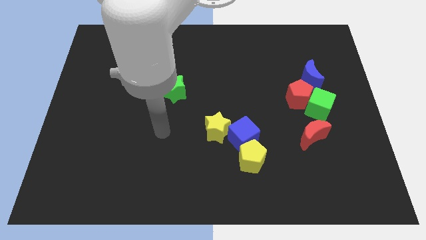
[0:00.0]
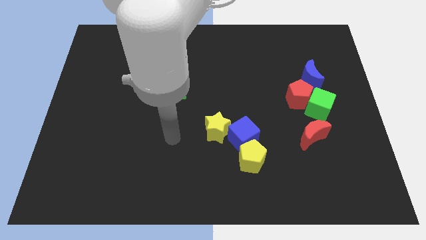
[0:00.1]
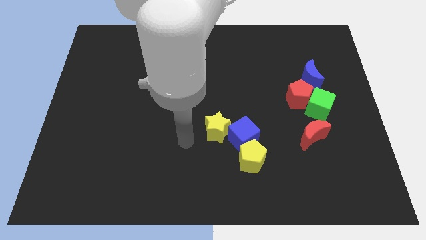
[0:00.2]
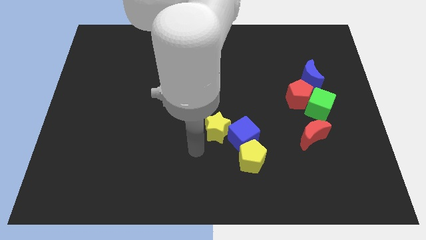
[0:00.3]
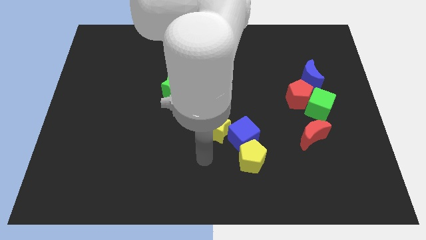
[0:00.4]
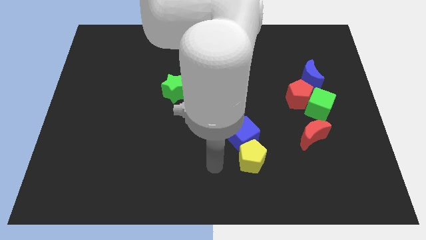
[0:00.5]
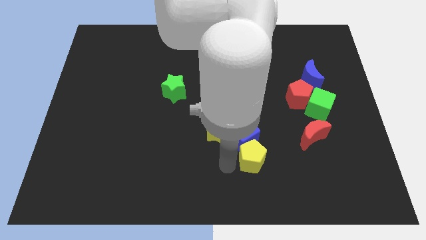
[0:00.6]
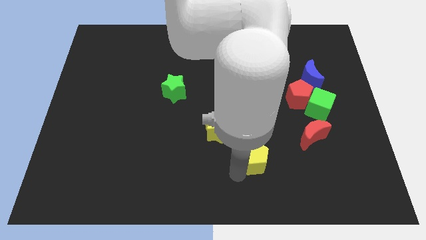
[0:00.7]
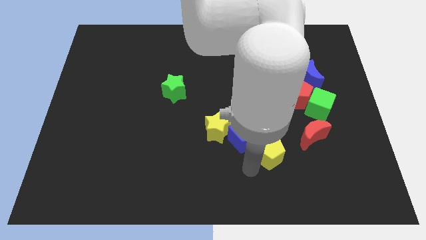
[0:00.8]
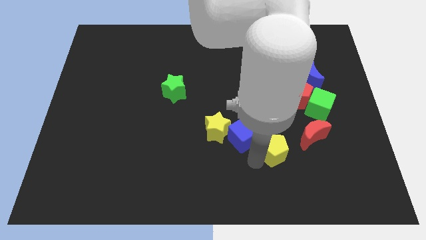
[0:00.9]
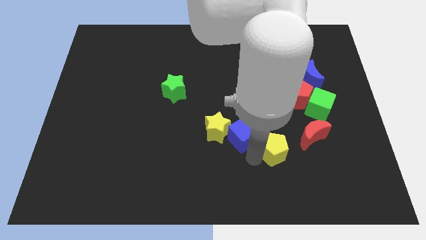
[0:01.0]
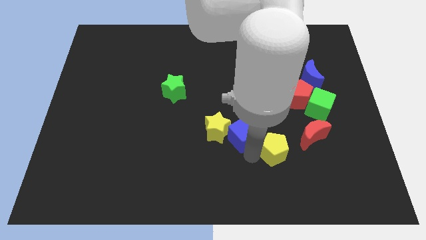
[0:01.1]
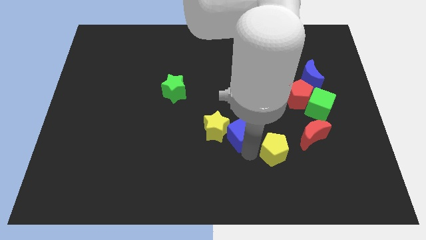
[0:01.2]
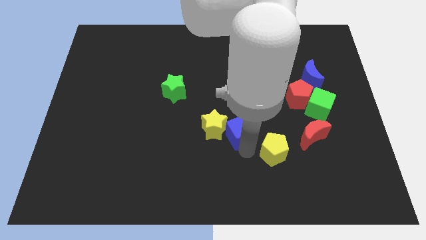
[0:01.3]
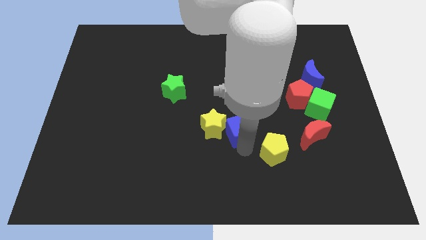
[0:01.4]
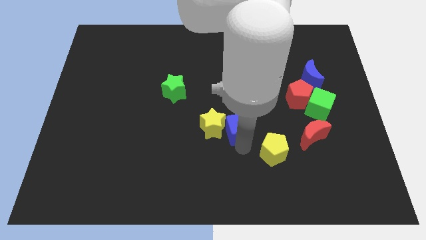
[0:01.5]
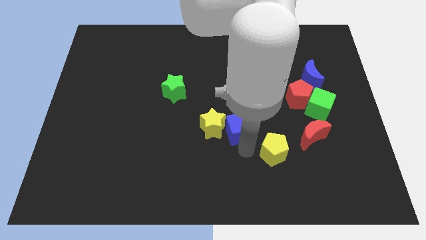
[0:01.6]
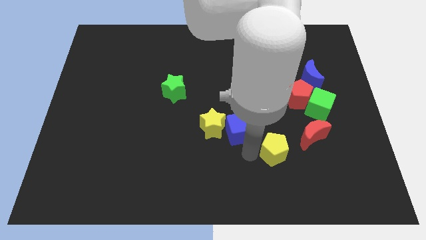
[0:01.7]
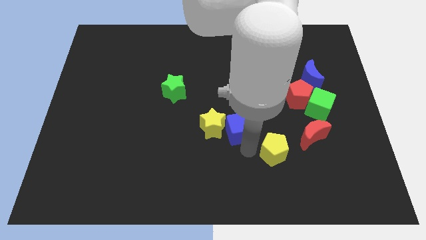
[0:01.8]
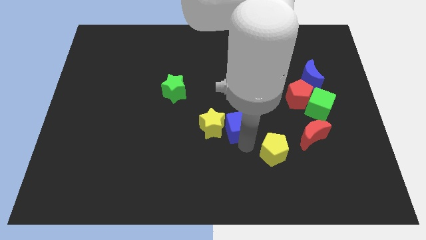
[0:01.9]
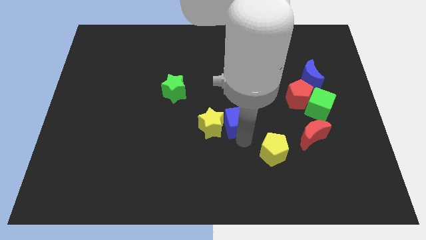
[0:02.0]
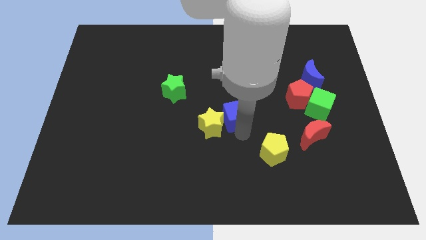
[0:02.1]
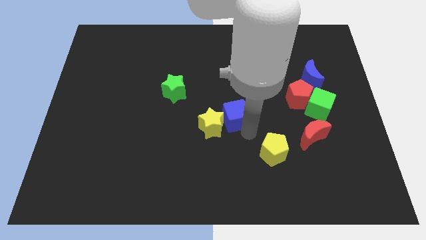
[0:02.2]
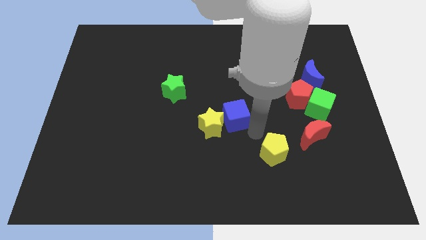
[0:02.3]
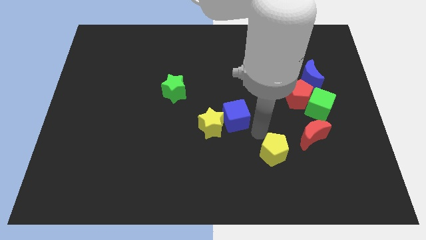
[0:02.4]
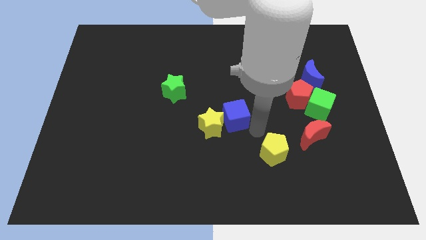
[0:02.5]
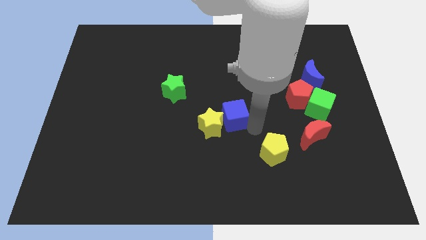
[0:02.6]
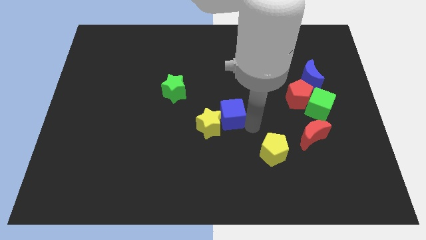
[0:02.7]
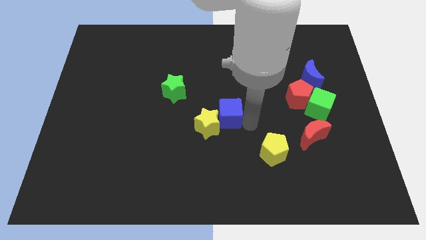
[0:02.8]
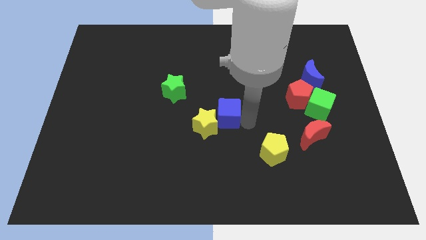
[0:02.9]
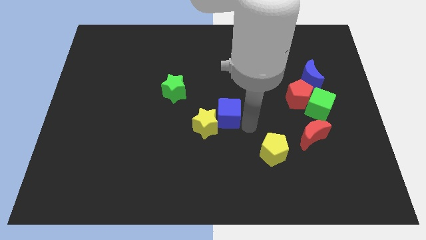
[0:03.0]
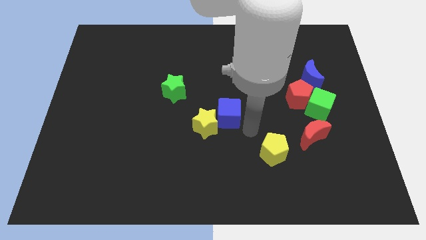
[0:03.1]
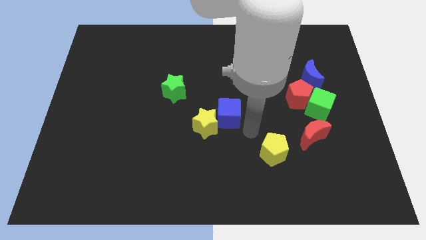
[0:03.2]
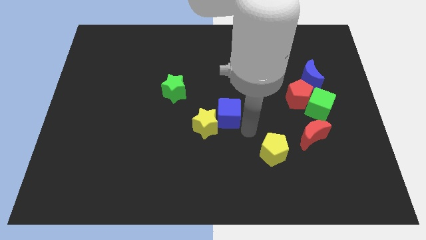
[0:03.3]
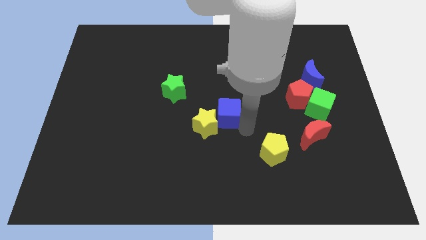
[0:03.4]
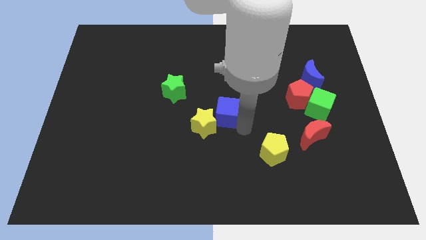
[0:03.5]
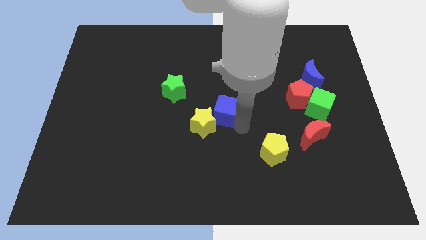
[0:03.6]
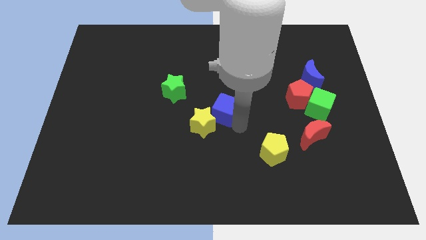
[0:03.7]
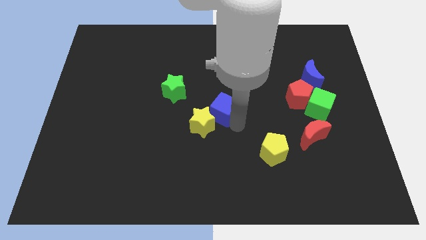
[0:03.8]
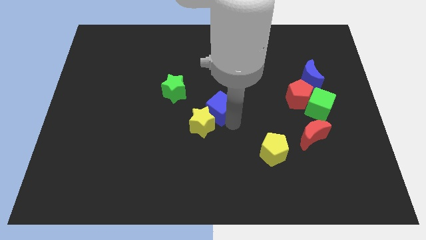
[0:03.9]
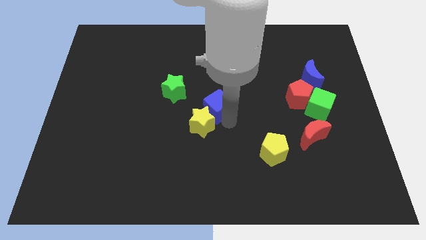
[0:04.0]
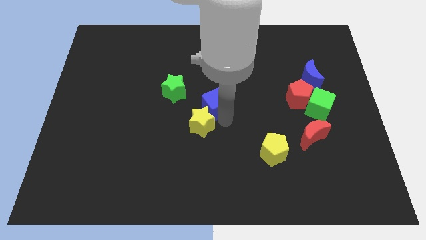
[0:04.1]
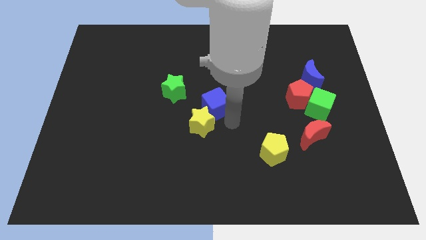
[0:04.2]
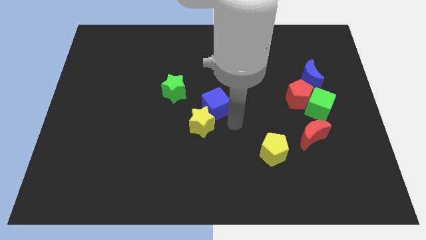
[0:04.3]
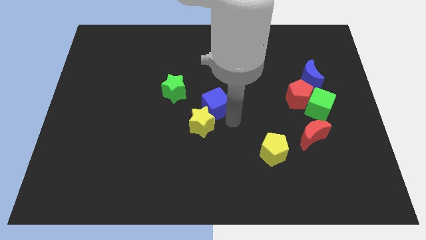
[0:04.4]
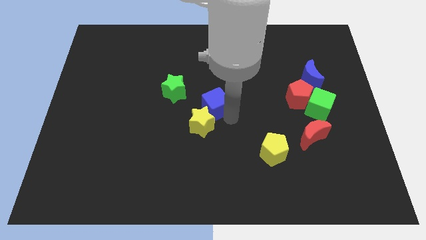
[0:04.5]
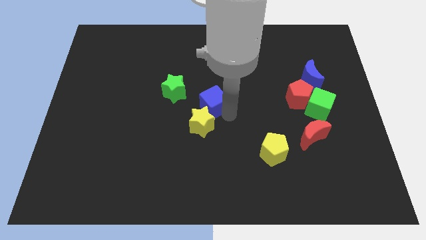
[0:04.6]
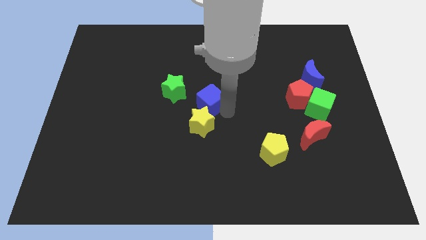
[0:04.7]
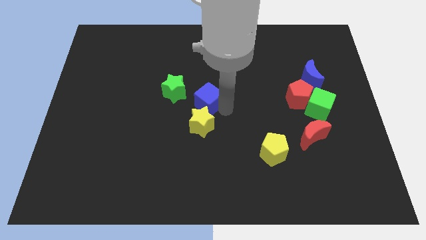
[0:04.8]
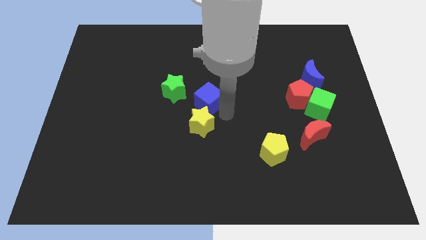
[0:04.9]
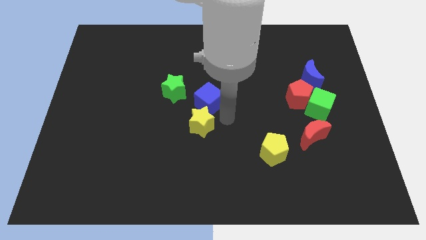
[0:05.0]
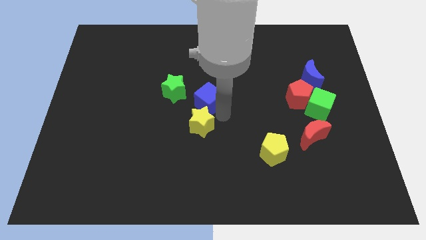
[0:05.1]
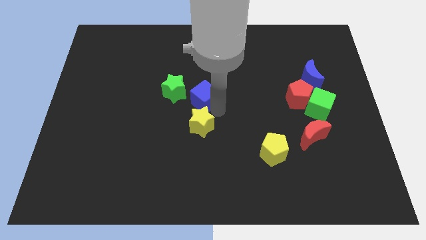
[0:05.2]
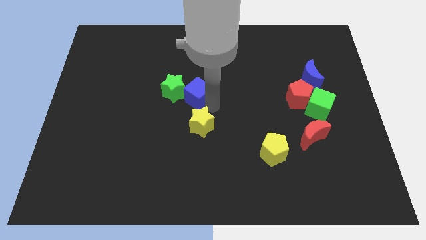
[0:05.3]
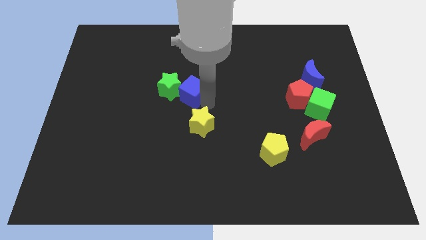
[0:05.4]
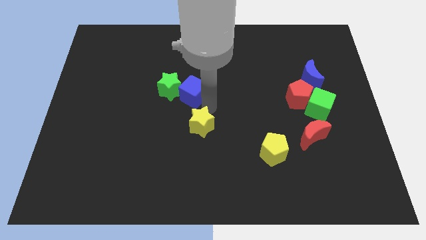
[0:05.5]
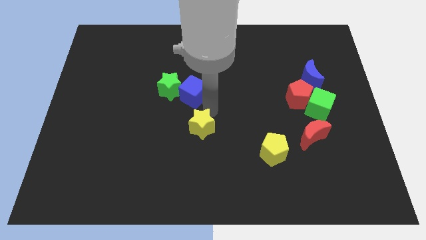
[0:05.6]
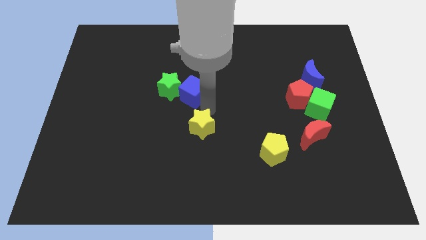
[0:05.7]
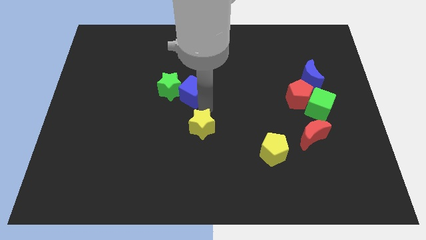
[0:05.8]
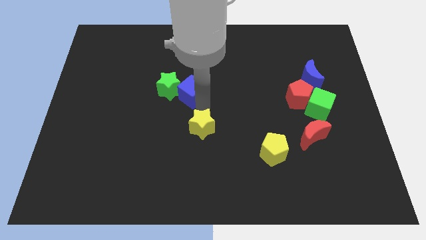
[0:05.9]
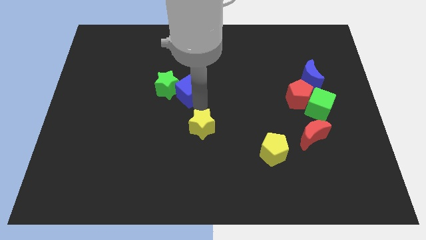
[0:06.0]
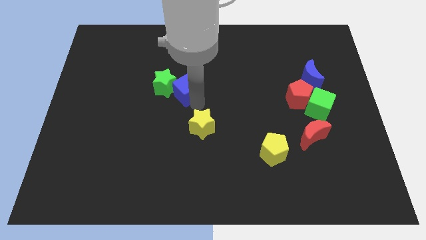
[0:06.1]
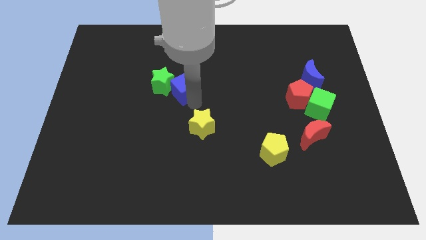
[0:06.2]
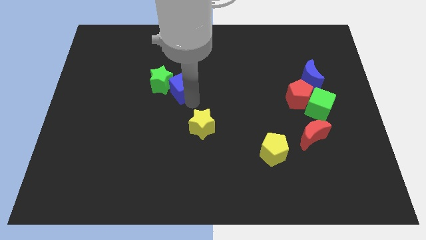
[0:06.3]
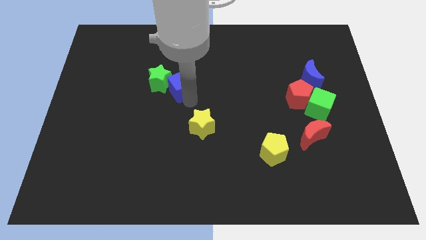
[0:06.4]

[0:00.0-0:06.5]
push the blue cube up and left

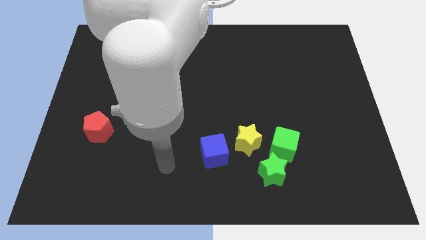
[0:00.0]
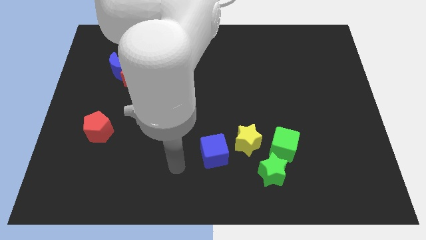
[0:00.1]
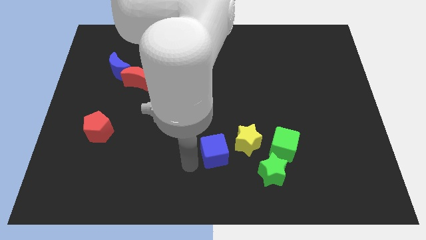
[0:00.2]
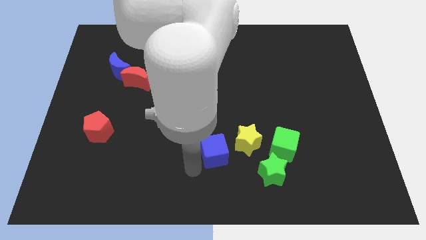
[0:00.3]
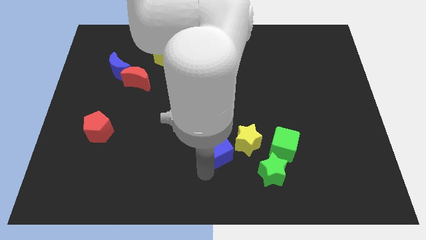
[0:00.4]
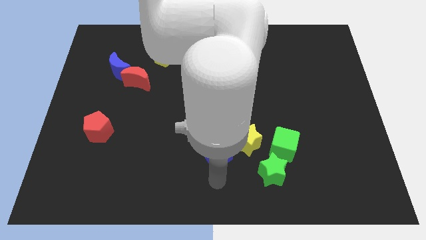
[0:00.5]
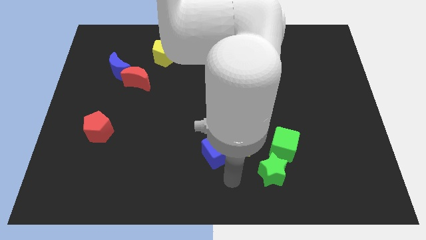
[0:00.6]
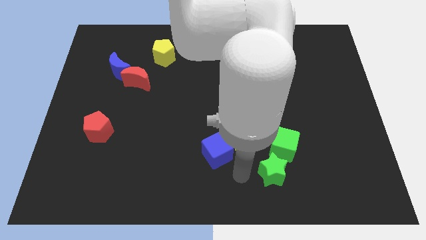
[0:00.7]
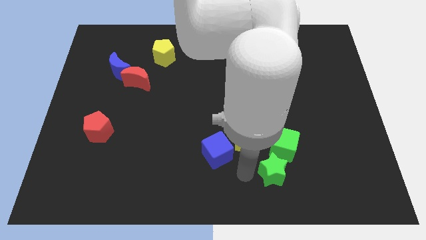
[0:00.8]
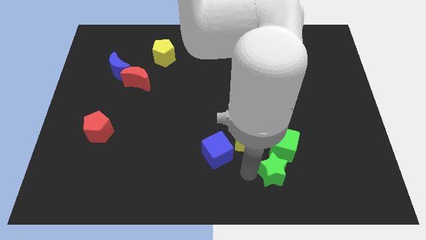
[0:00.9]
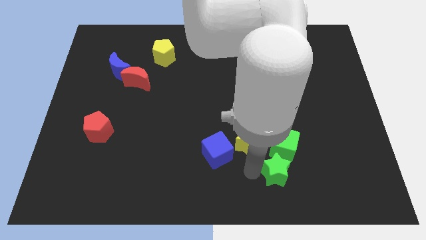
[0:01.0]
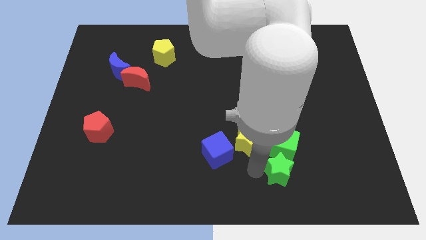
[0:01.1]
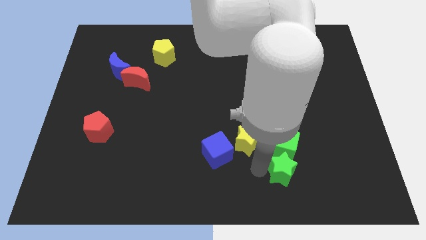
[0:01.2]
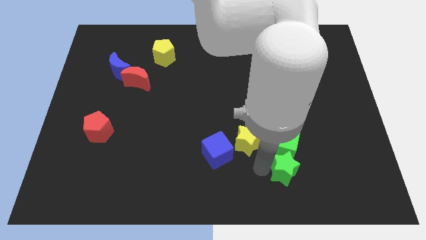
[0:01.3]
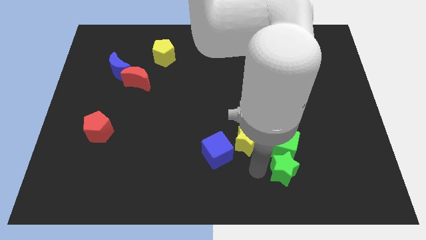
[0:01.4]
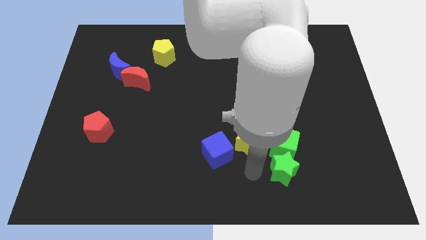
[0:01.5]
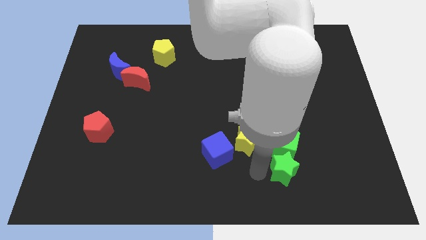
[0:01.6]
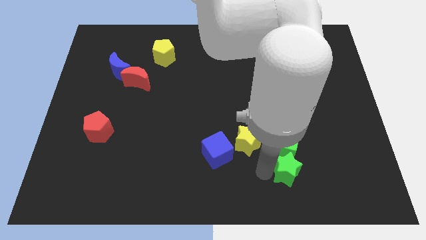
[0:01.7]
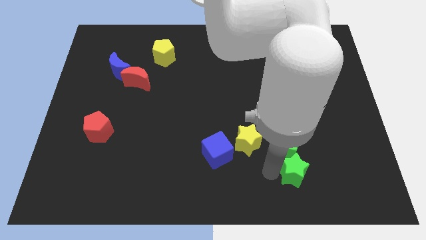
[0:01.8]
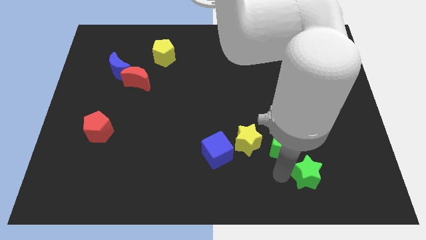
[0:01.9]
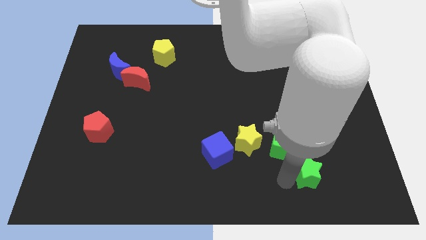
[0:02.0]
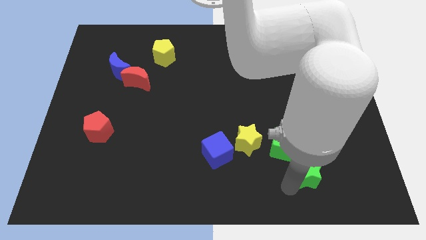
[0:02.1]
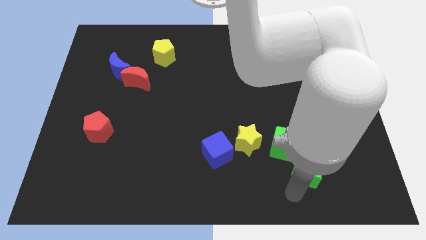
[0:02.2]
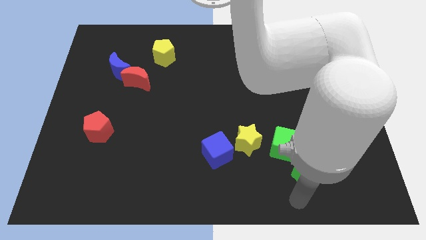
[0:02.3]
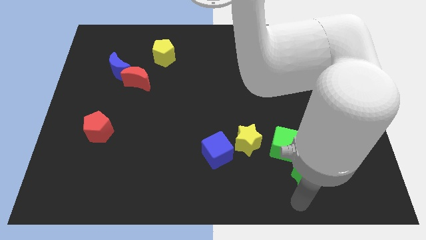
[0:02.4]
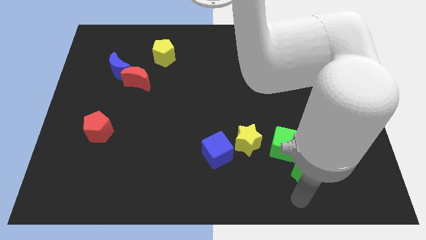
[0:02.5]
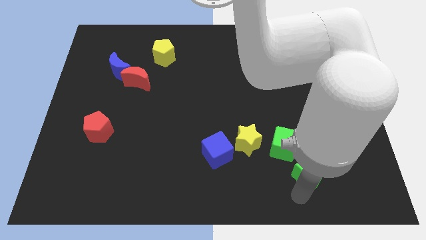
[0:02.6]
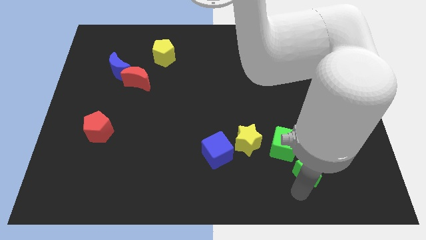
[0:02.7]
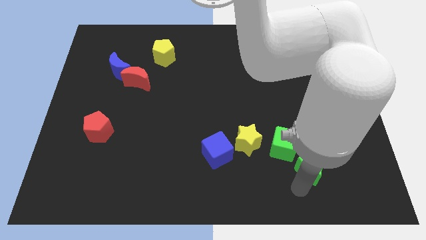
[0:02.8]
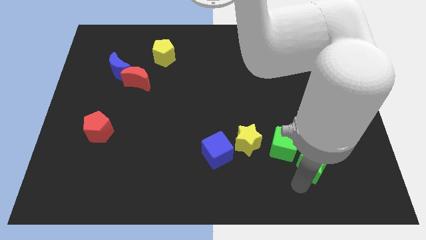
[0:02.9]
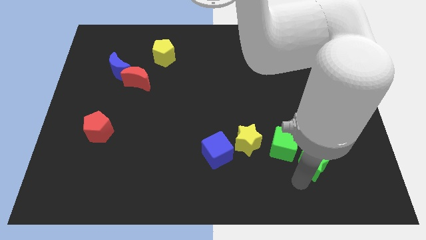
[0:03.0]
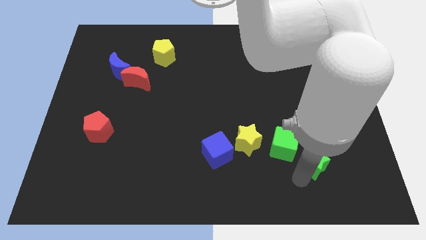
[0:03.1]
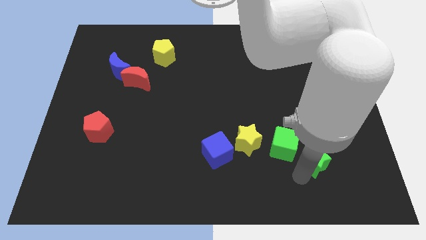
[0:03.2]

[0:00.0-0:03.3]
slightly move the green star upwards and right
